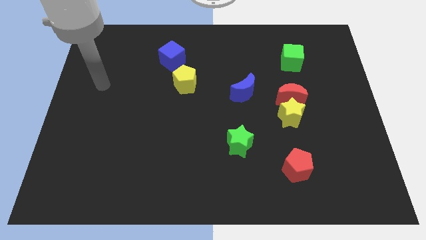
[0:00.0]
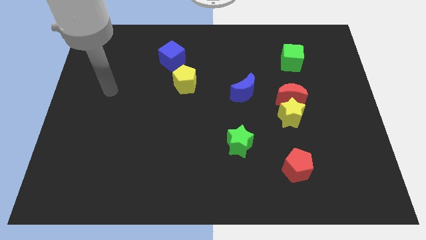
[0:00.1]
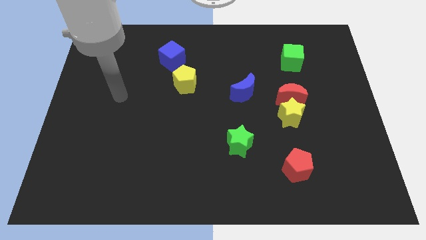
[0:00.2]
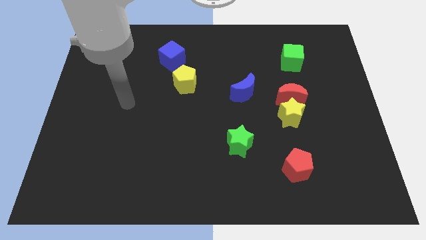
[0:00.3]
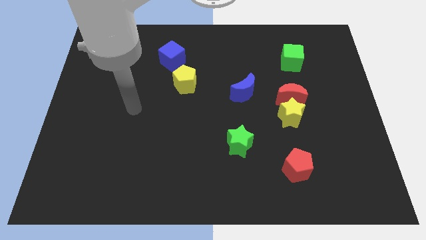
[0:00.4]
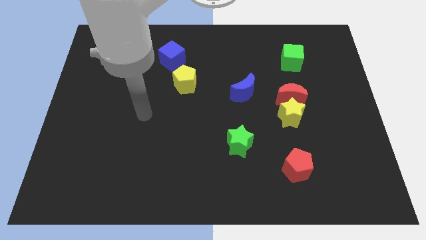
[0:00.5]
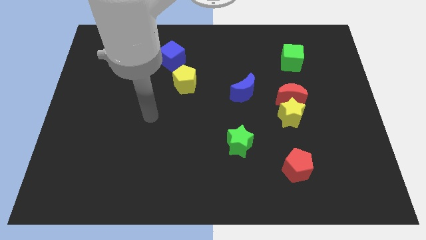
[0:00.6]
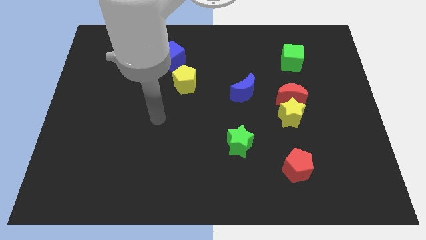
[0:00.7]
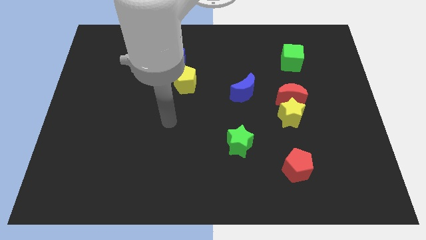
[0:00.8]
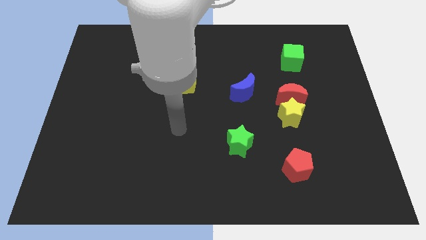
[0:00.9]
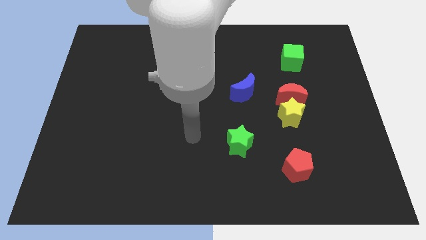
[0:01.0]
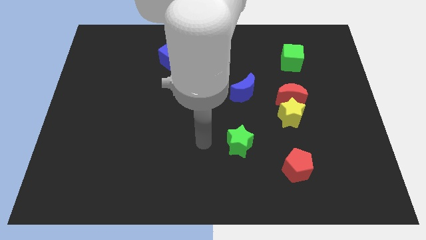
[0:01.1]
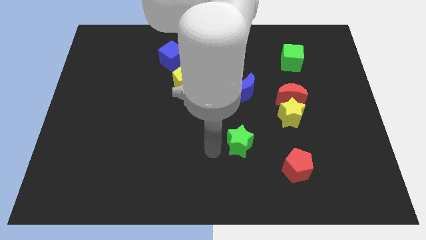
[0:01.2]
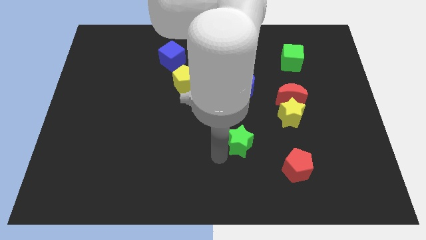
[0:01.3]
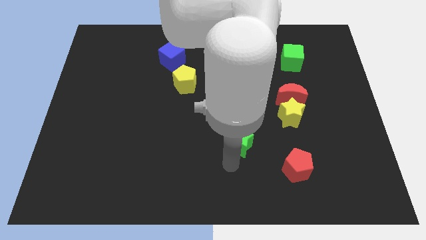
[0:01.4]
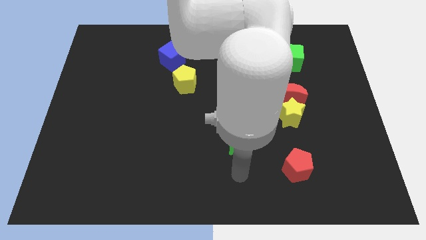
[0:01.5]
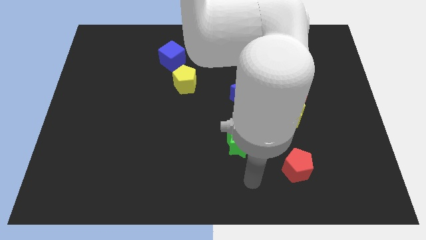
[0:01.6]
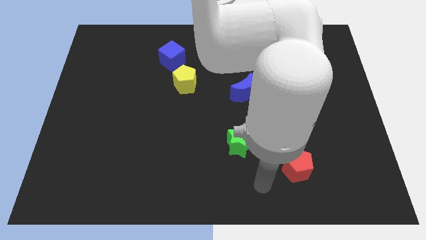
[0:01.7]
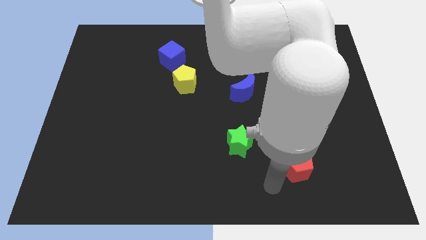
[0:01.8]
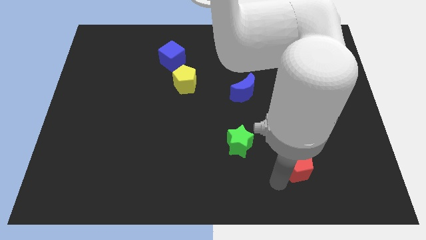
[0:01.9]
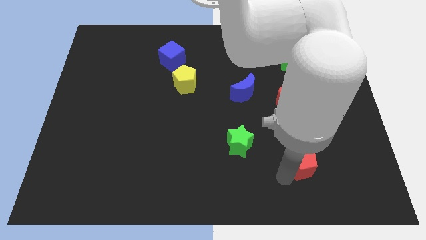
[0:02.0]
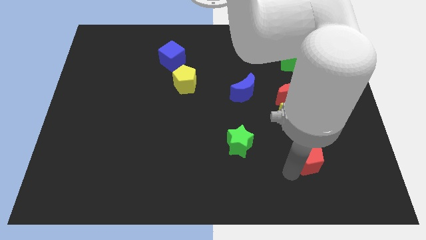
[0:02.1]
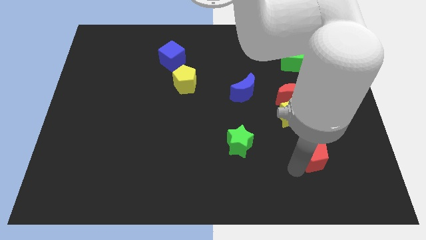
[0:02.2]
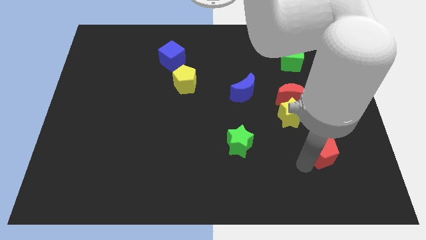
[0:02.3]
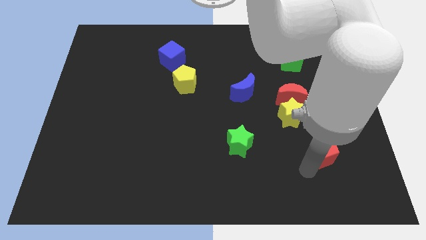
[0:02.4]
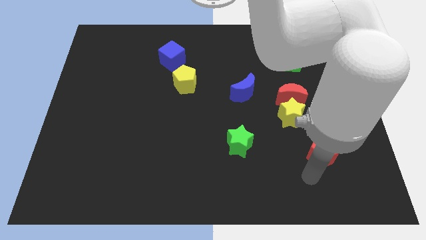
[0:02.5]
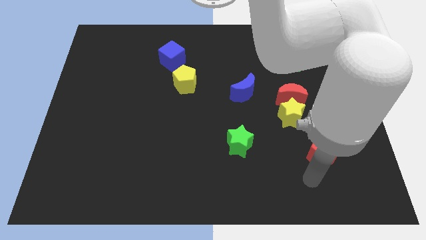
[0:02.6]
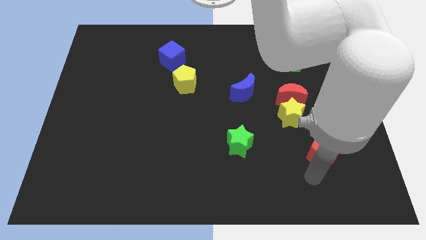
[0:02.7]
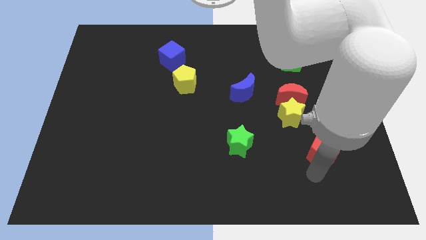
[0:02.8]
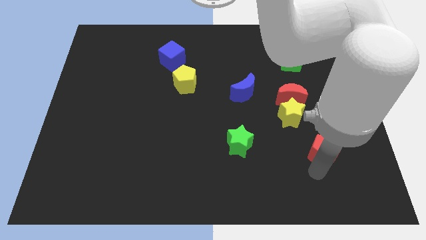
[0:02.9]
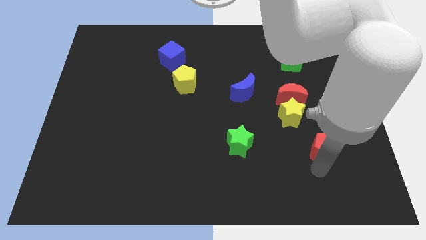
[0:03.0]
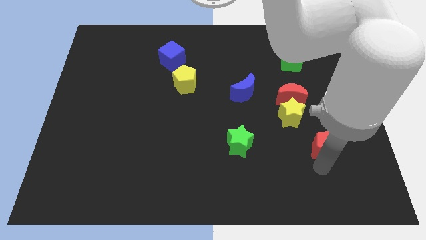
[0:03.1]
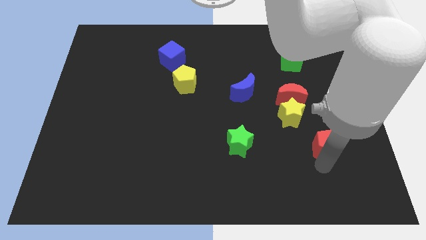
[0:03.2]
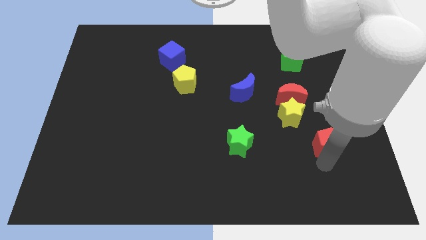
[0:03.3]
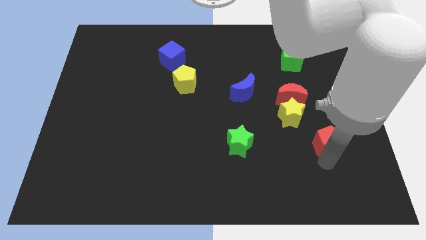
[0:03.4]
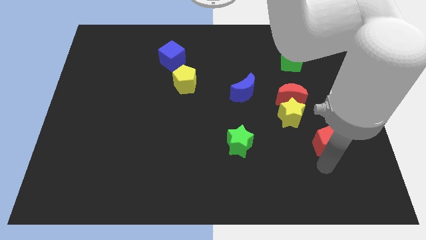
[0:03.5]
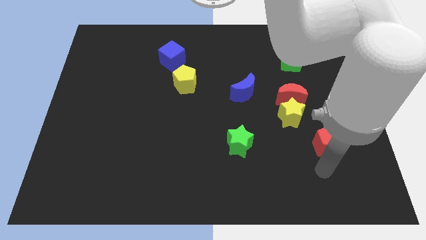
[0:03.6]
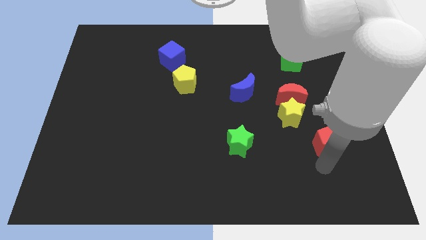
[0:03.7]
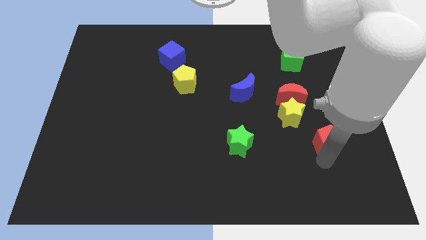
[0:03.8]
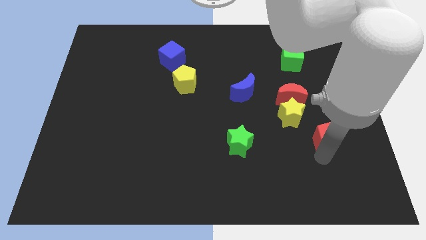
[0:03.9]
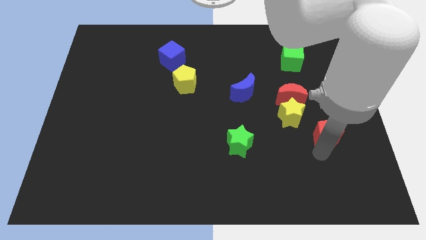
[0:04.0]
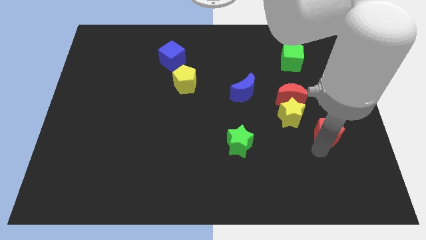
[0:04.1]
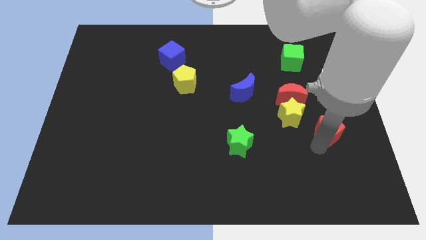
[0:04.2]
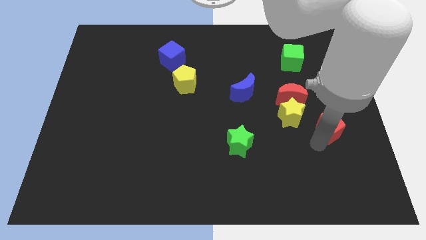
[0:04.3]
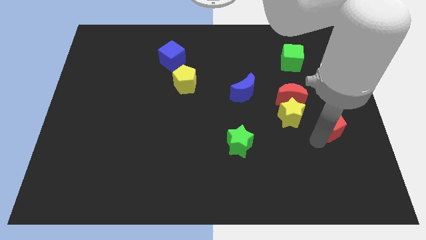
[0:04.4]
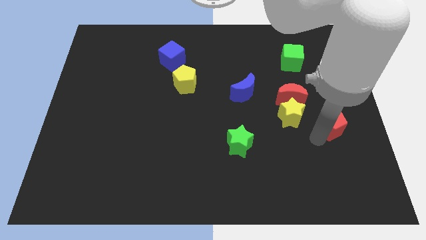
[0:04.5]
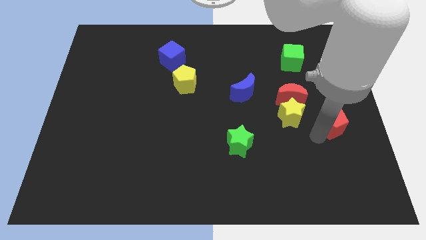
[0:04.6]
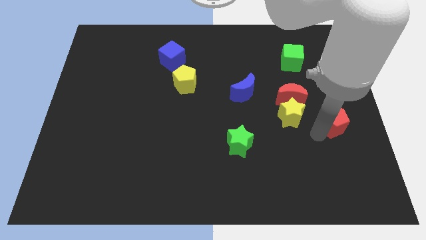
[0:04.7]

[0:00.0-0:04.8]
put the red pentagon to the center right

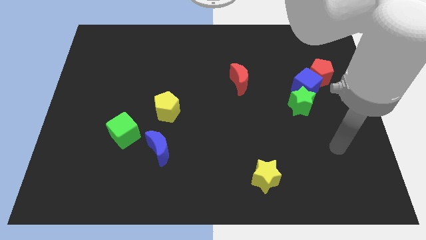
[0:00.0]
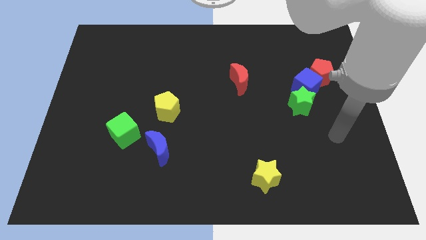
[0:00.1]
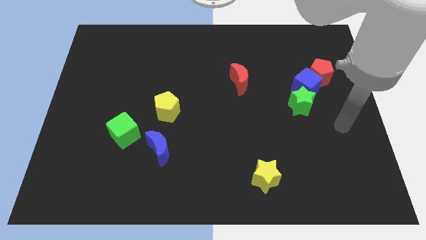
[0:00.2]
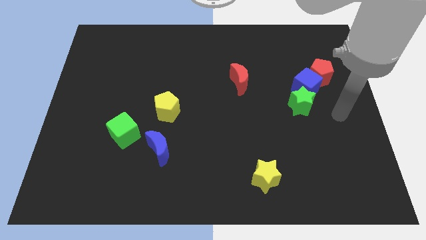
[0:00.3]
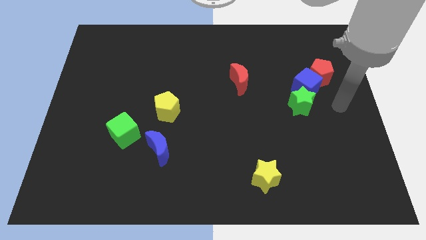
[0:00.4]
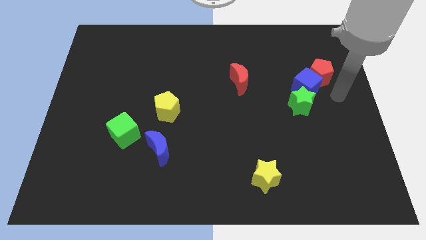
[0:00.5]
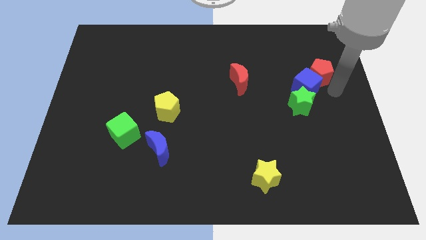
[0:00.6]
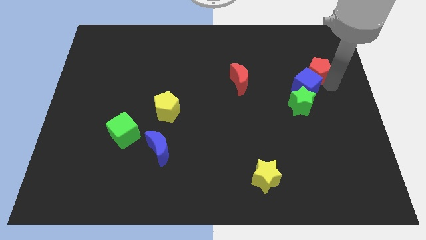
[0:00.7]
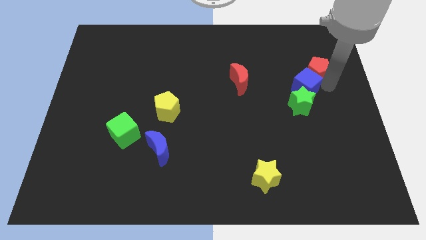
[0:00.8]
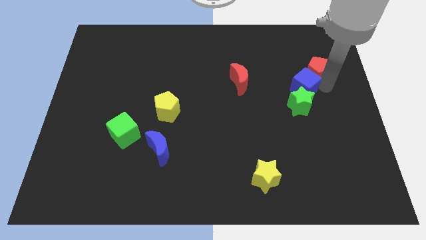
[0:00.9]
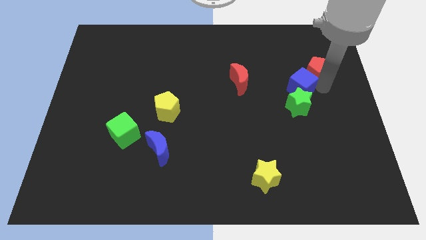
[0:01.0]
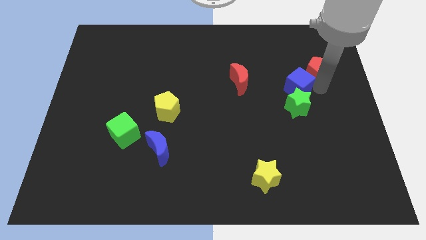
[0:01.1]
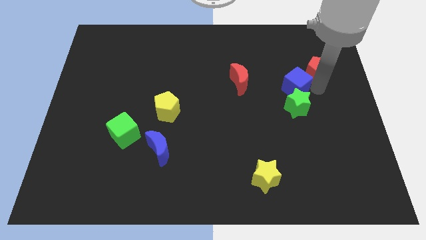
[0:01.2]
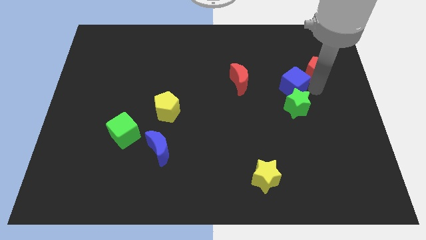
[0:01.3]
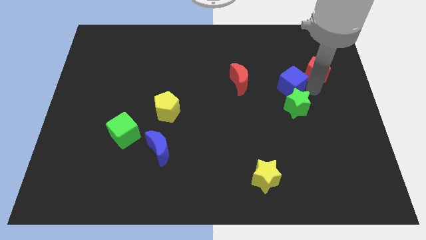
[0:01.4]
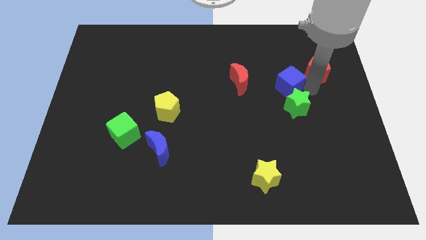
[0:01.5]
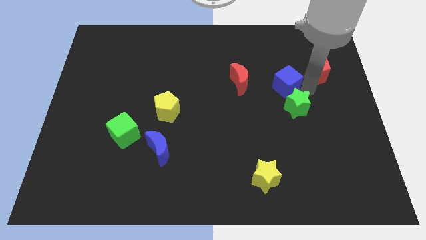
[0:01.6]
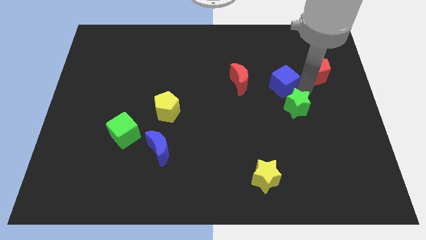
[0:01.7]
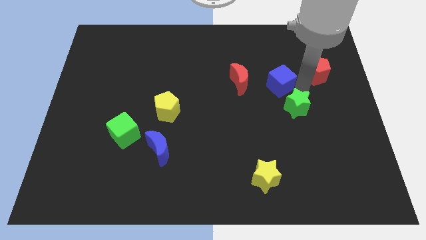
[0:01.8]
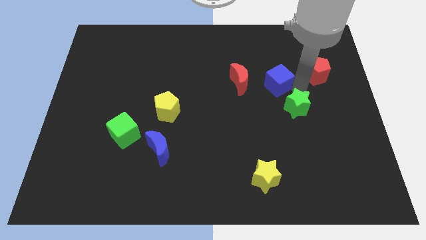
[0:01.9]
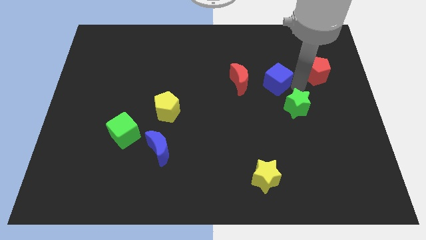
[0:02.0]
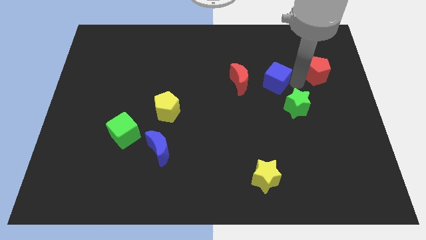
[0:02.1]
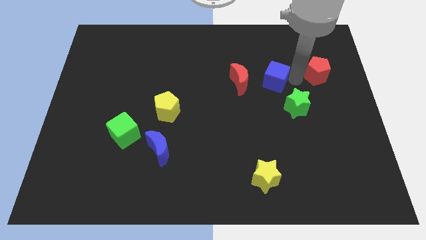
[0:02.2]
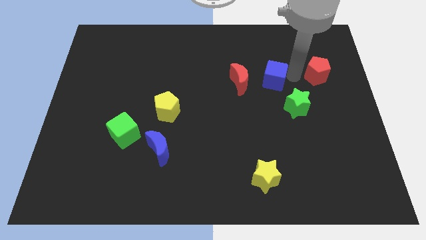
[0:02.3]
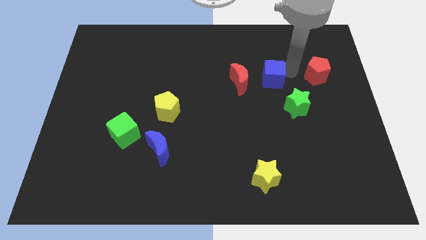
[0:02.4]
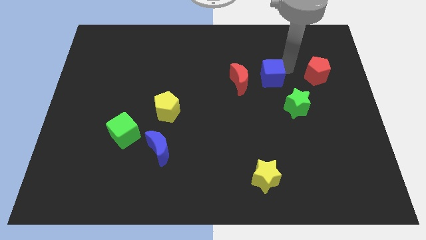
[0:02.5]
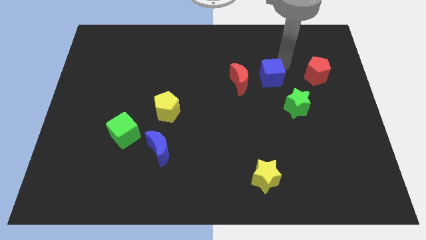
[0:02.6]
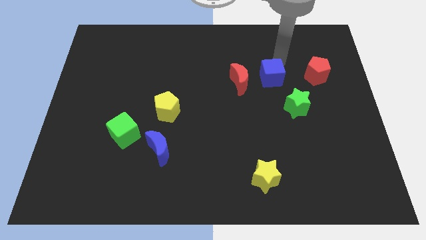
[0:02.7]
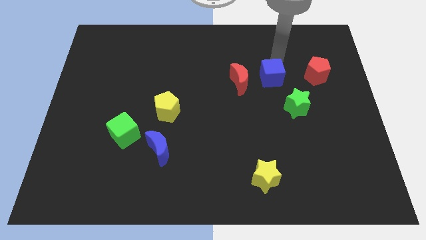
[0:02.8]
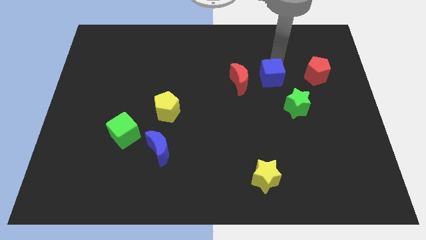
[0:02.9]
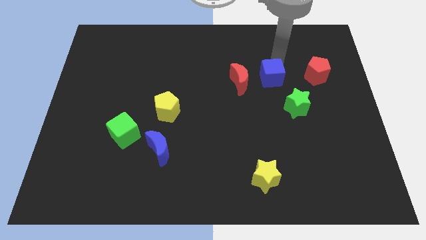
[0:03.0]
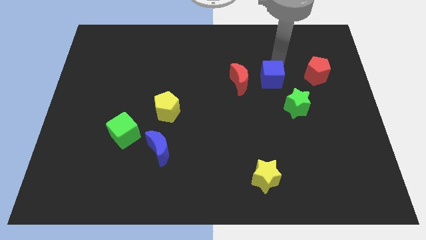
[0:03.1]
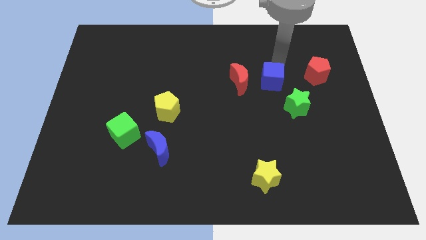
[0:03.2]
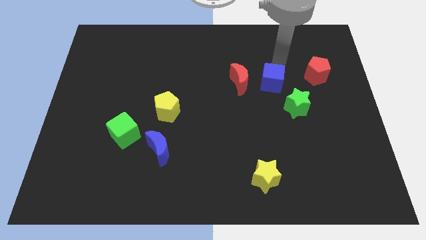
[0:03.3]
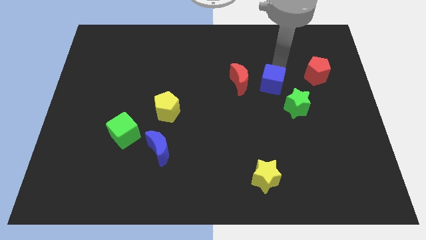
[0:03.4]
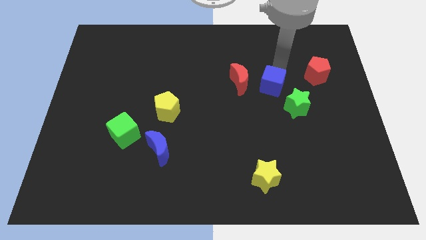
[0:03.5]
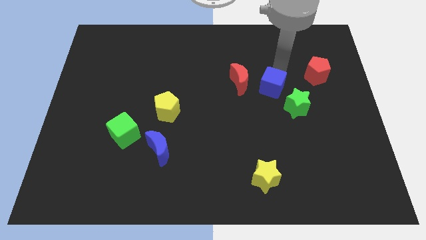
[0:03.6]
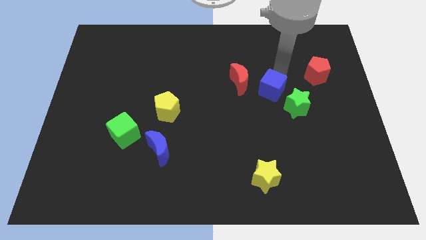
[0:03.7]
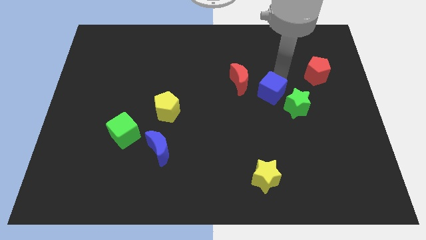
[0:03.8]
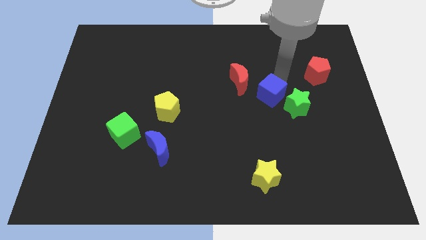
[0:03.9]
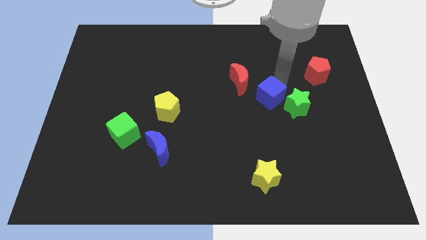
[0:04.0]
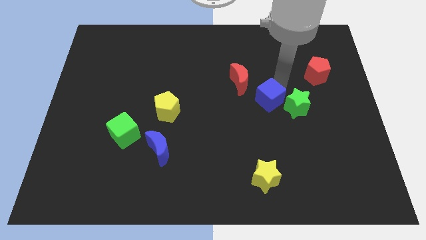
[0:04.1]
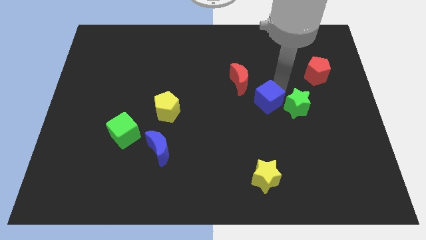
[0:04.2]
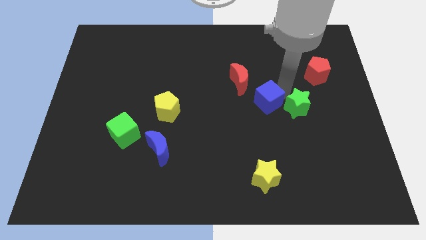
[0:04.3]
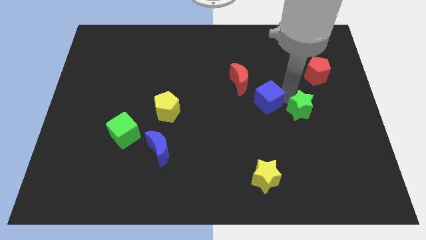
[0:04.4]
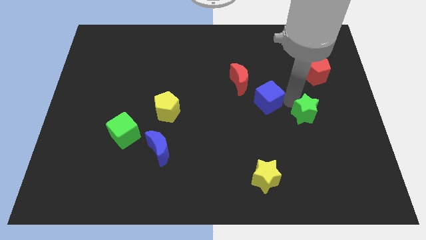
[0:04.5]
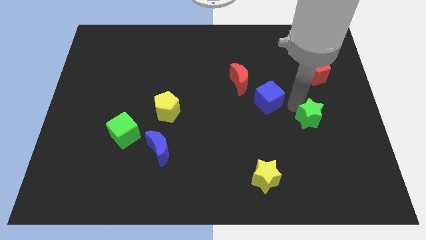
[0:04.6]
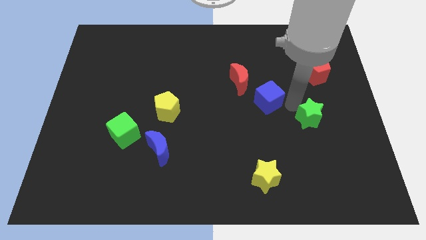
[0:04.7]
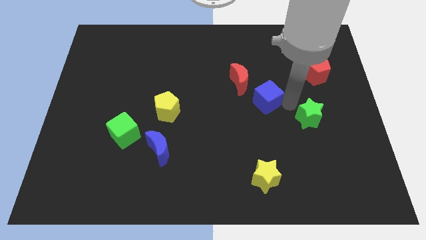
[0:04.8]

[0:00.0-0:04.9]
slide the blue cube to the center of the board
